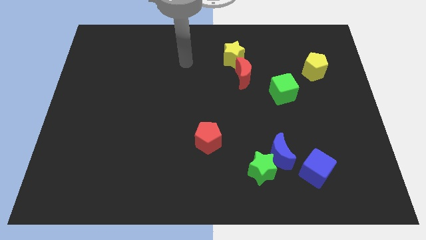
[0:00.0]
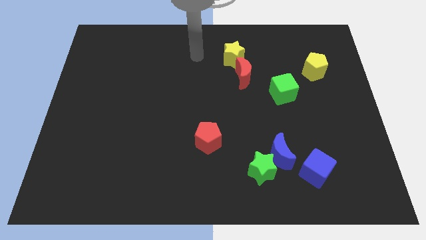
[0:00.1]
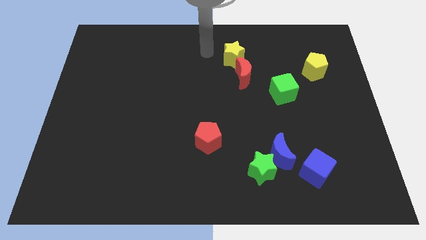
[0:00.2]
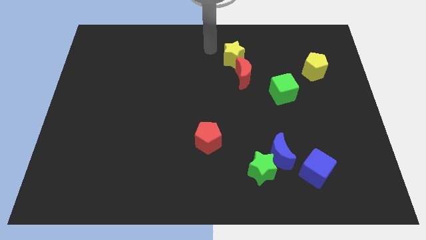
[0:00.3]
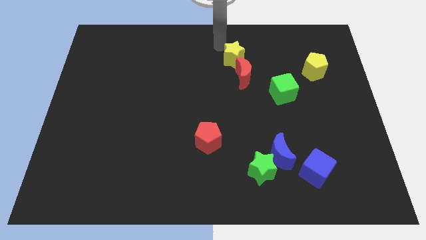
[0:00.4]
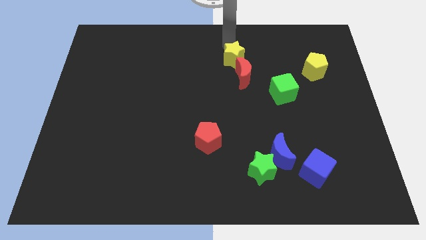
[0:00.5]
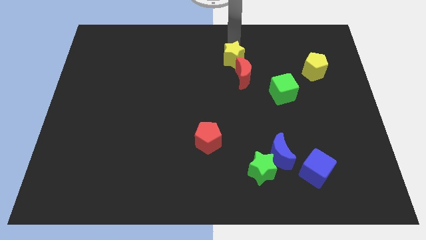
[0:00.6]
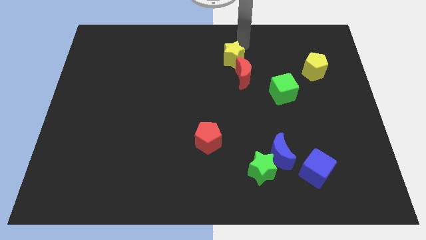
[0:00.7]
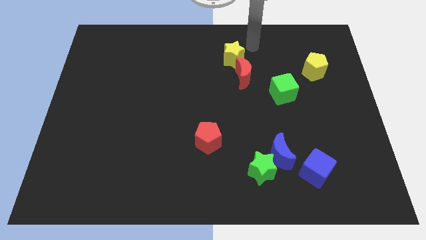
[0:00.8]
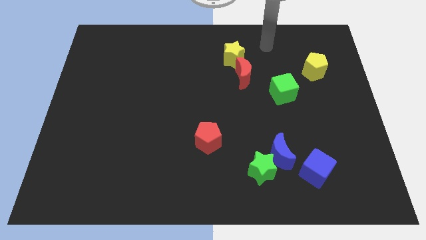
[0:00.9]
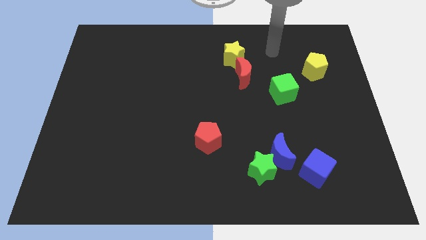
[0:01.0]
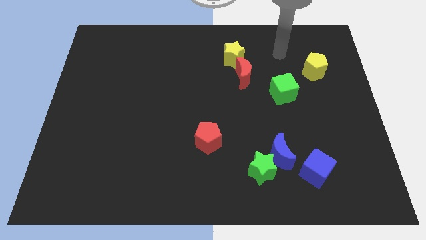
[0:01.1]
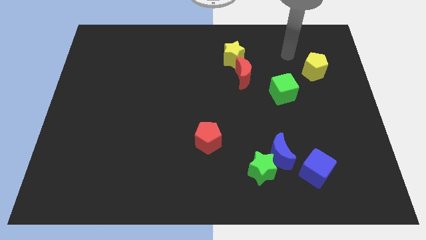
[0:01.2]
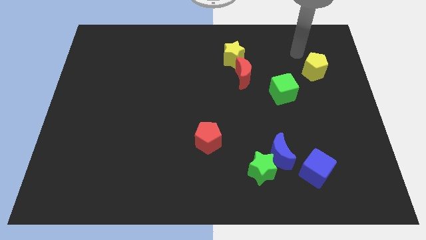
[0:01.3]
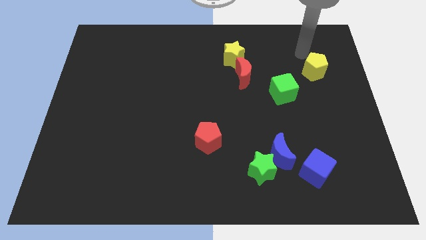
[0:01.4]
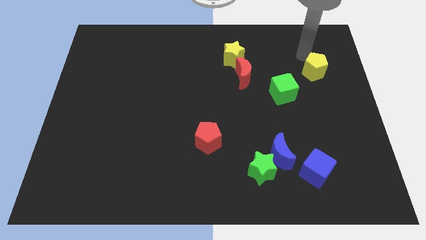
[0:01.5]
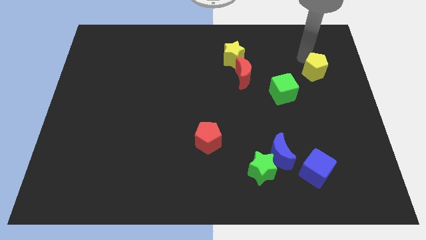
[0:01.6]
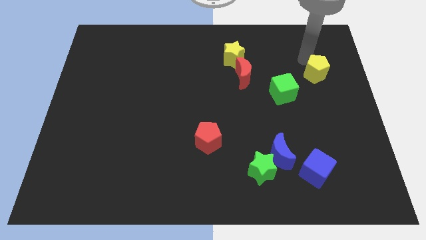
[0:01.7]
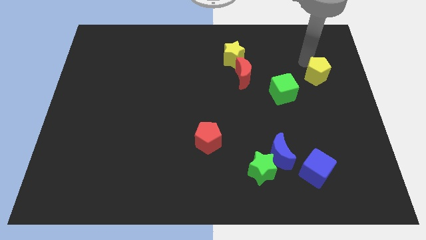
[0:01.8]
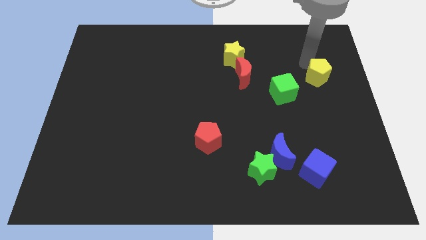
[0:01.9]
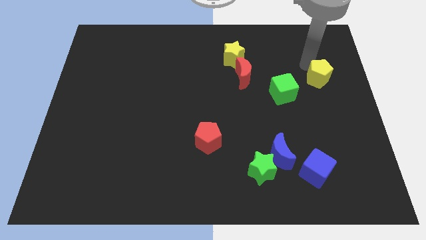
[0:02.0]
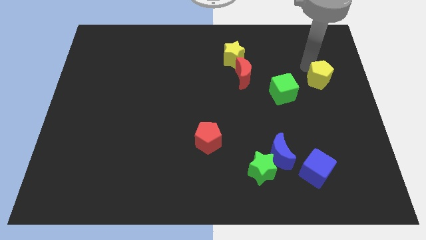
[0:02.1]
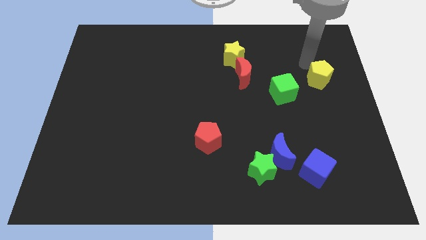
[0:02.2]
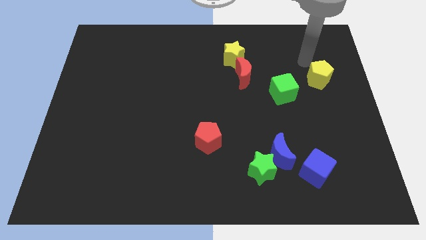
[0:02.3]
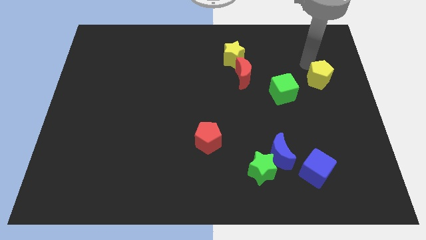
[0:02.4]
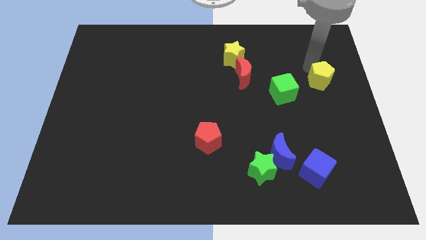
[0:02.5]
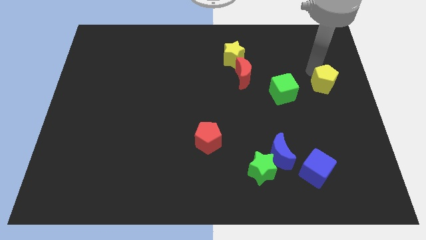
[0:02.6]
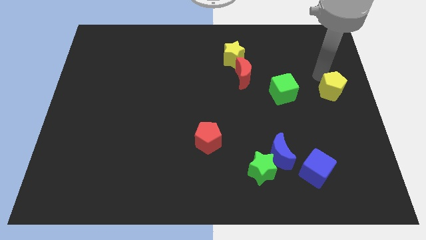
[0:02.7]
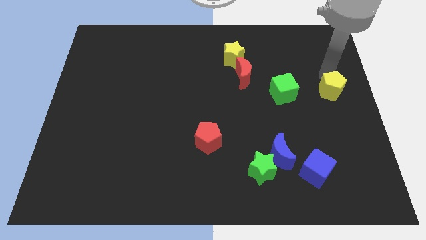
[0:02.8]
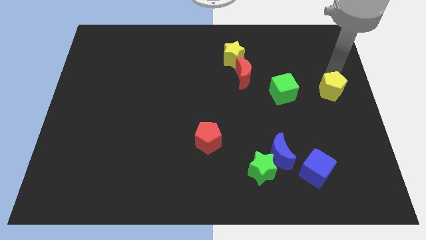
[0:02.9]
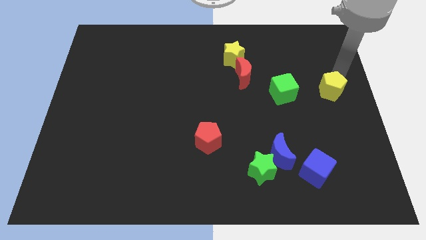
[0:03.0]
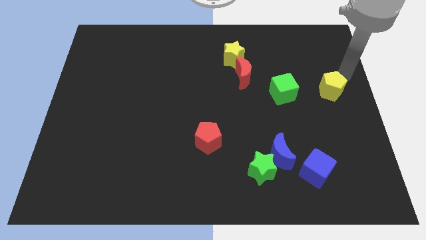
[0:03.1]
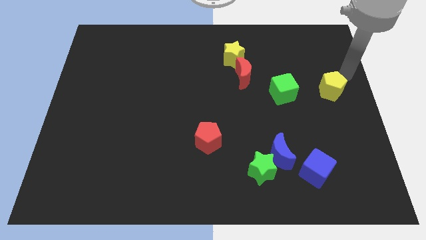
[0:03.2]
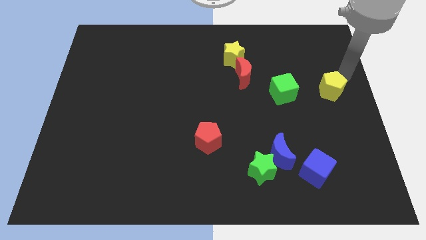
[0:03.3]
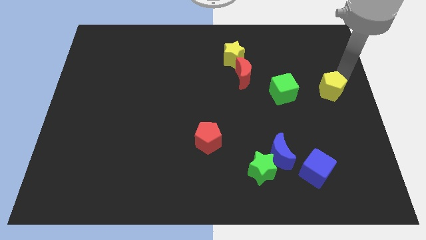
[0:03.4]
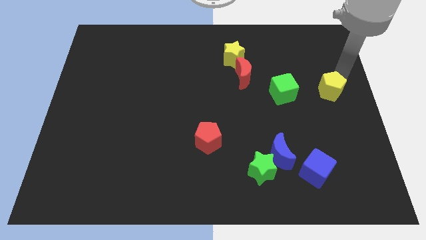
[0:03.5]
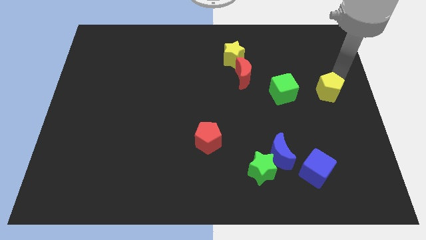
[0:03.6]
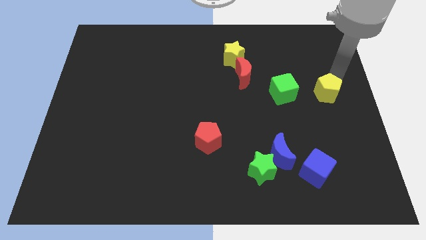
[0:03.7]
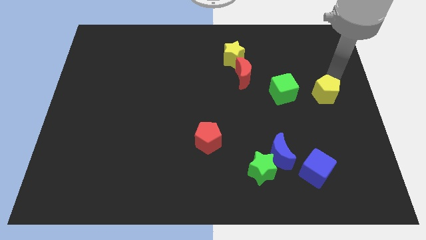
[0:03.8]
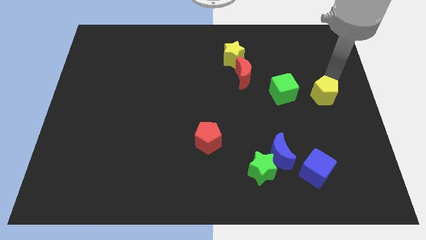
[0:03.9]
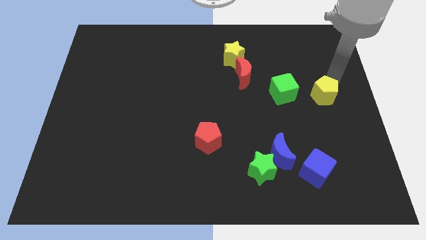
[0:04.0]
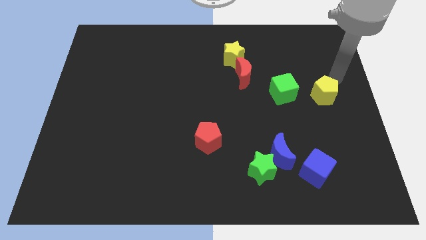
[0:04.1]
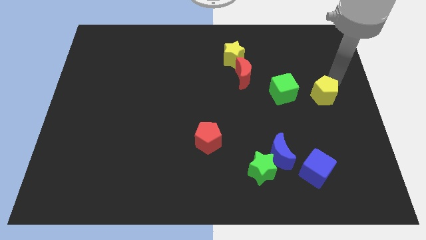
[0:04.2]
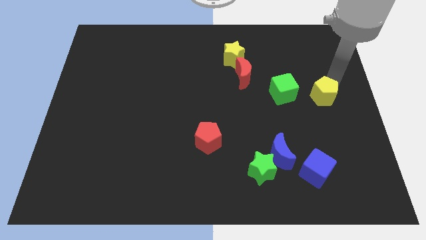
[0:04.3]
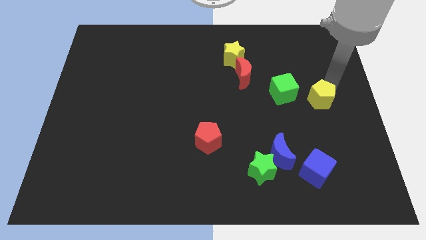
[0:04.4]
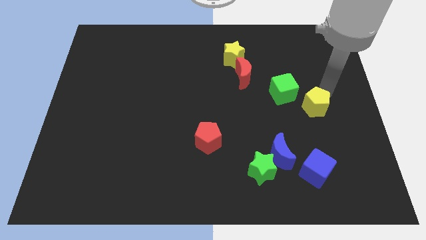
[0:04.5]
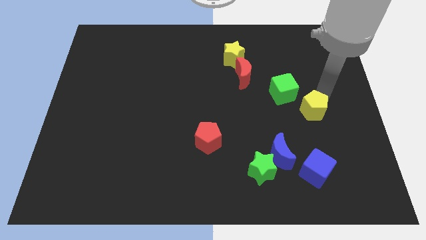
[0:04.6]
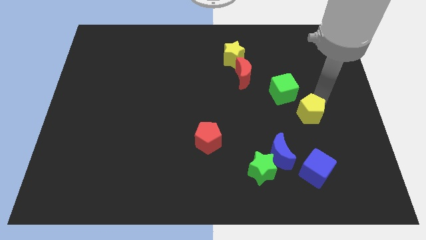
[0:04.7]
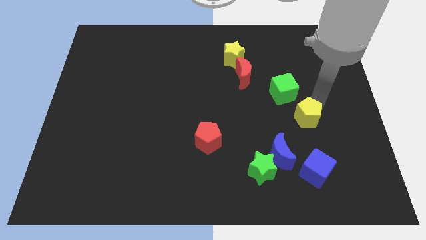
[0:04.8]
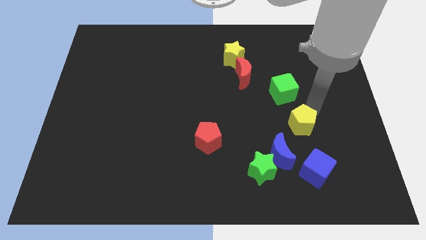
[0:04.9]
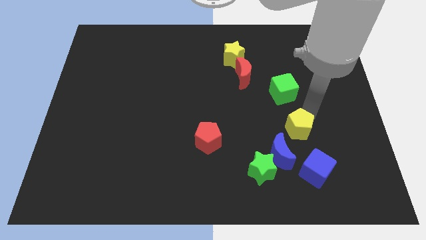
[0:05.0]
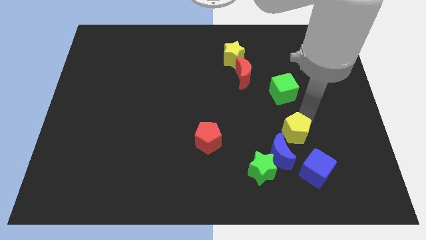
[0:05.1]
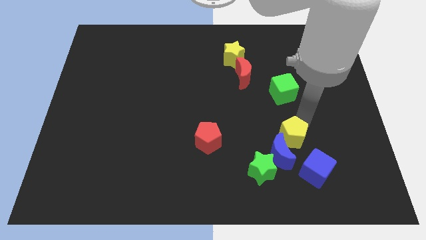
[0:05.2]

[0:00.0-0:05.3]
put the yellow pentagon close to the blue moon

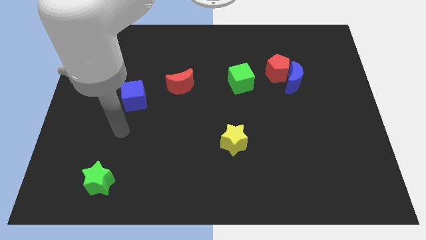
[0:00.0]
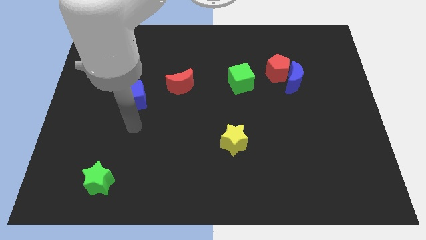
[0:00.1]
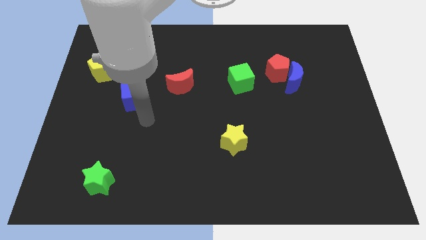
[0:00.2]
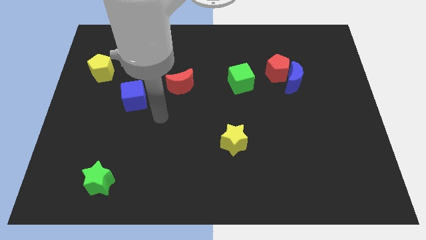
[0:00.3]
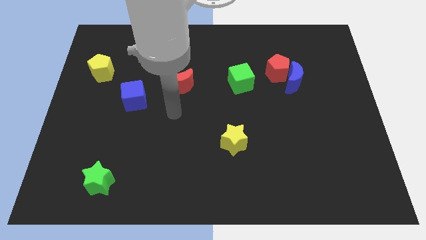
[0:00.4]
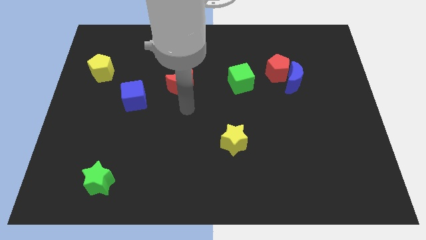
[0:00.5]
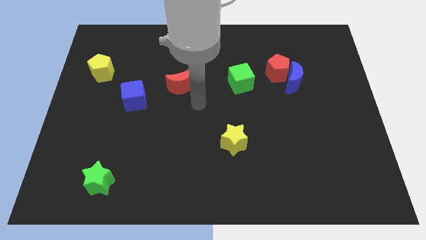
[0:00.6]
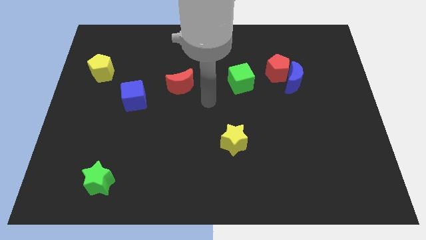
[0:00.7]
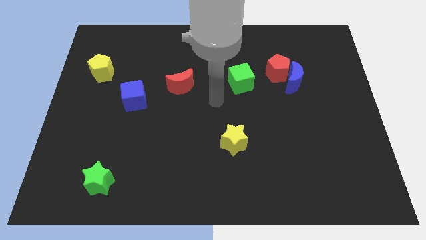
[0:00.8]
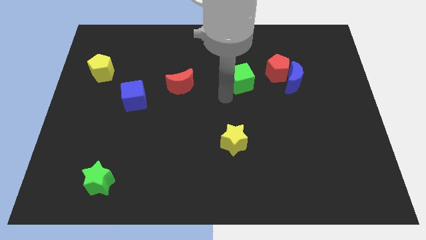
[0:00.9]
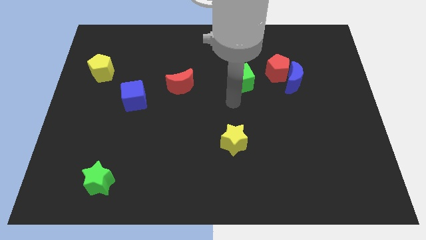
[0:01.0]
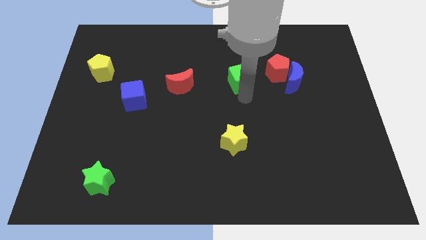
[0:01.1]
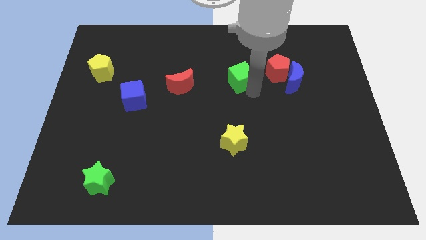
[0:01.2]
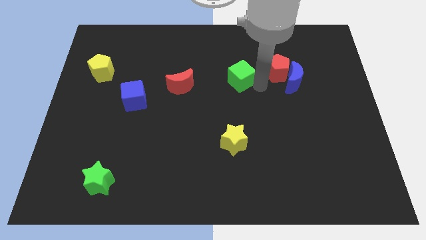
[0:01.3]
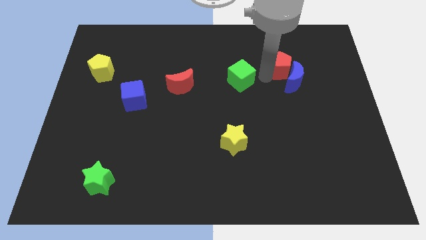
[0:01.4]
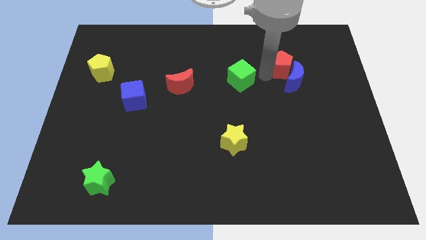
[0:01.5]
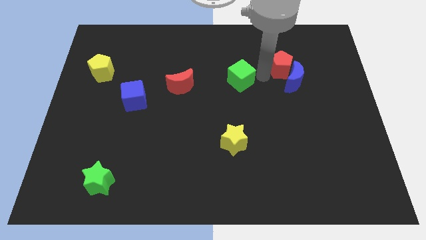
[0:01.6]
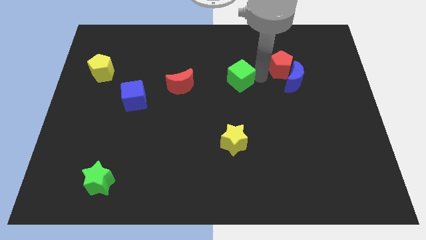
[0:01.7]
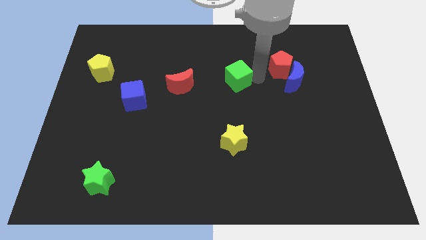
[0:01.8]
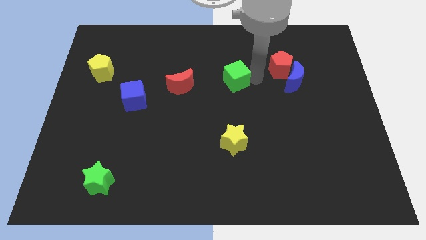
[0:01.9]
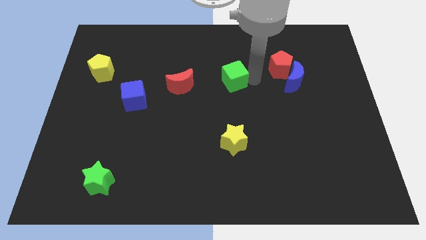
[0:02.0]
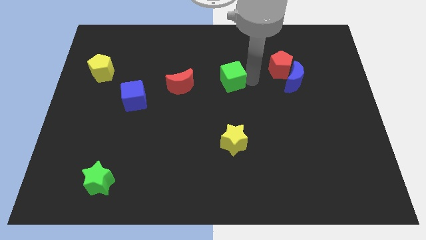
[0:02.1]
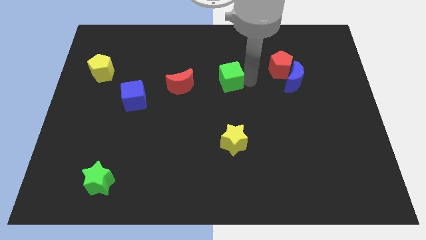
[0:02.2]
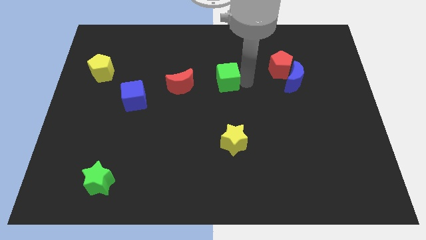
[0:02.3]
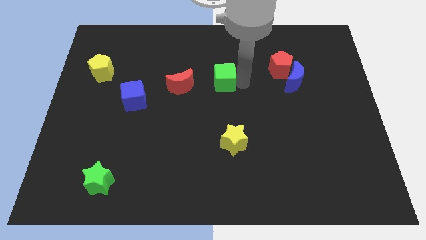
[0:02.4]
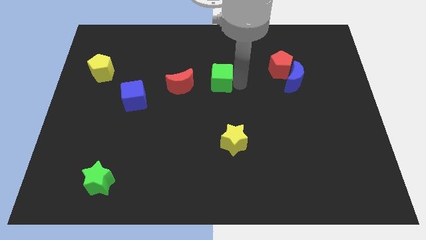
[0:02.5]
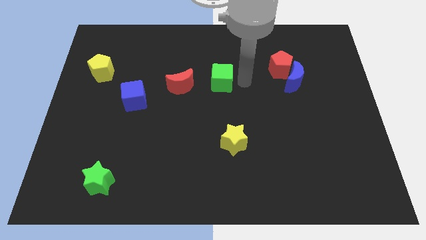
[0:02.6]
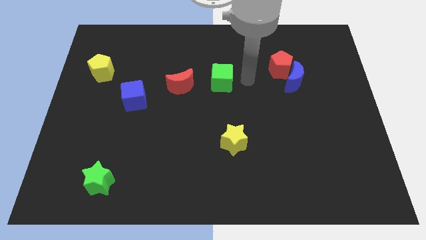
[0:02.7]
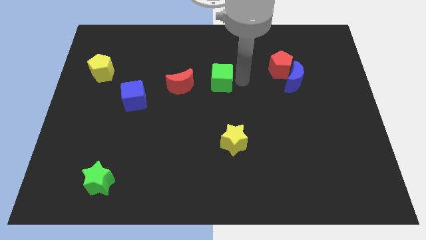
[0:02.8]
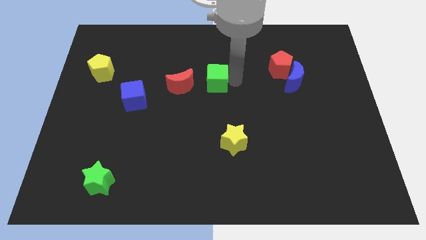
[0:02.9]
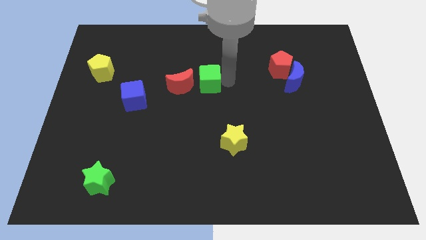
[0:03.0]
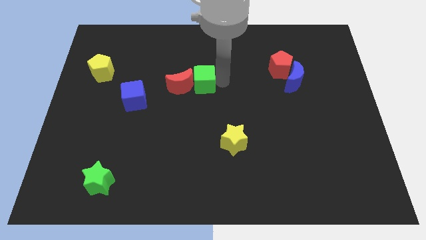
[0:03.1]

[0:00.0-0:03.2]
slide the green cube close to the red moon
